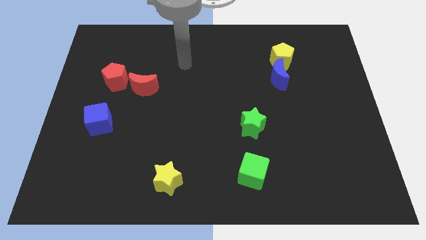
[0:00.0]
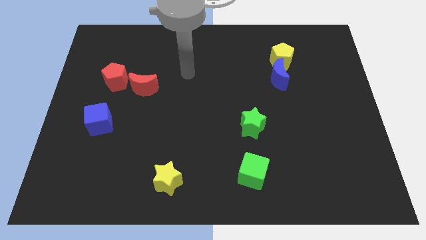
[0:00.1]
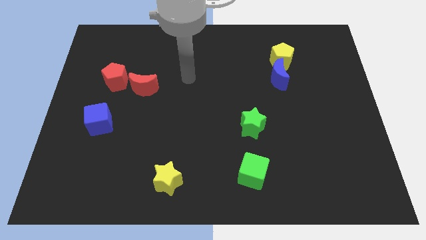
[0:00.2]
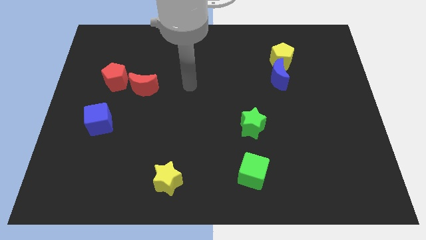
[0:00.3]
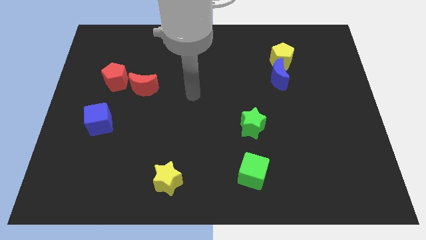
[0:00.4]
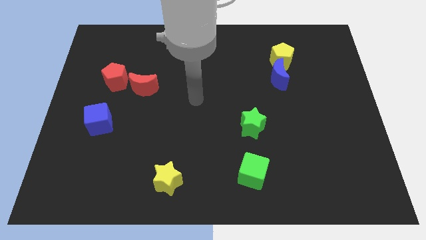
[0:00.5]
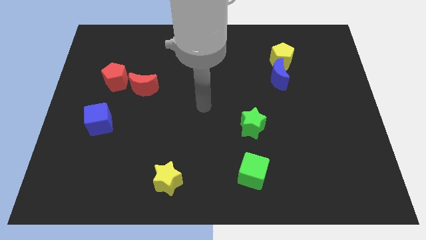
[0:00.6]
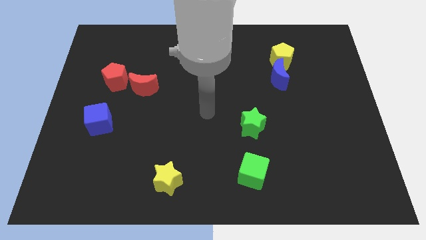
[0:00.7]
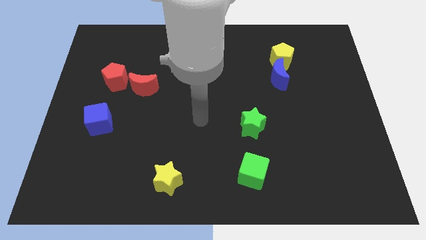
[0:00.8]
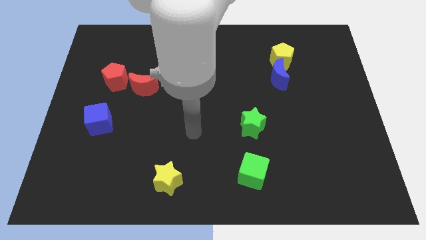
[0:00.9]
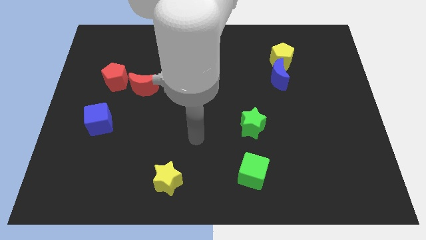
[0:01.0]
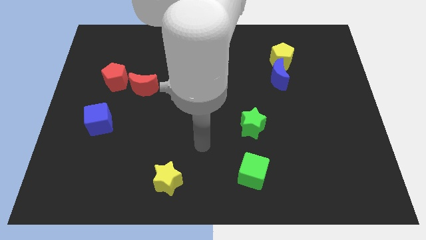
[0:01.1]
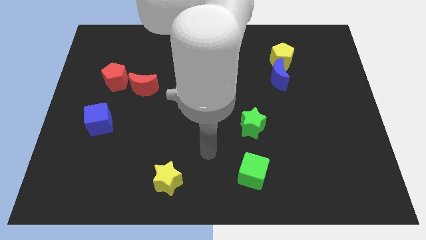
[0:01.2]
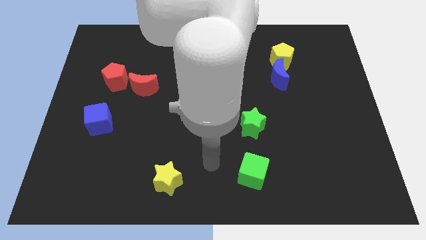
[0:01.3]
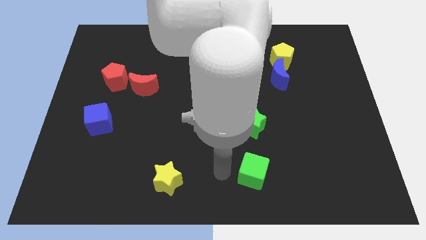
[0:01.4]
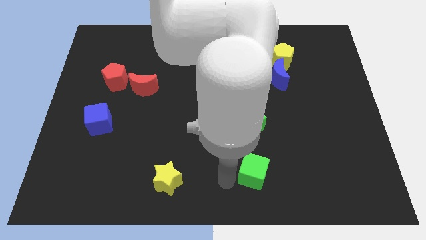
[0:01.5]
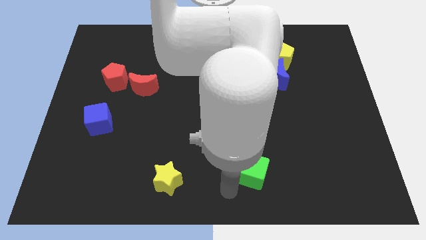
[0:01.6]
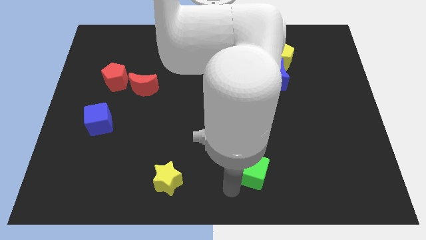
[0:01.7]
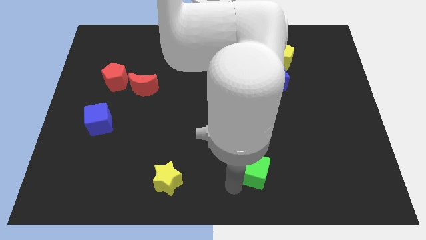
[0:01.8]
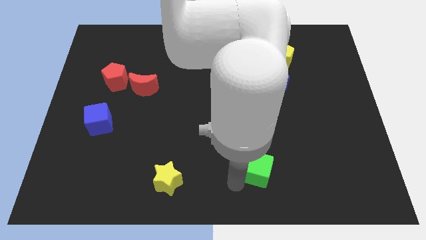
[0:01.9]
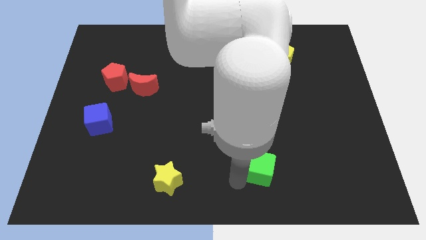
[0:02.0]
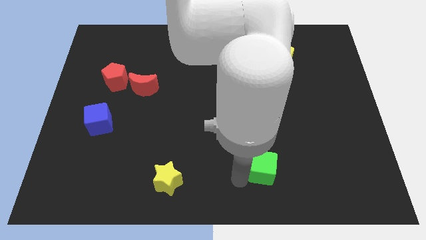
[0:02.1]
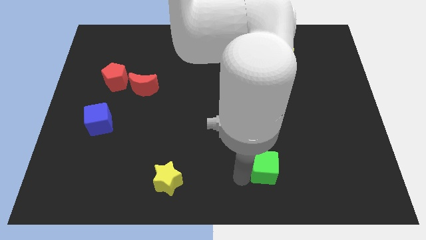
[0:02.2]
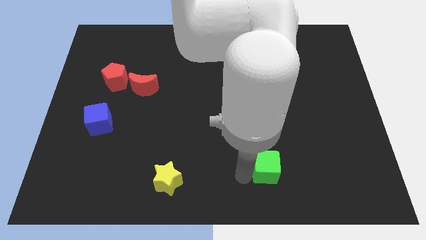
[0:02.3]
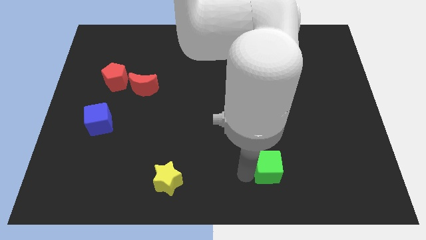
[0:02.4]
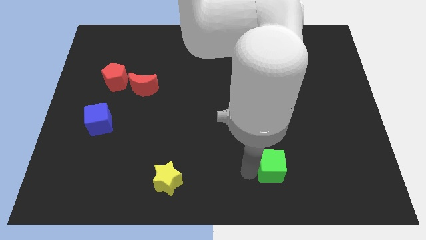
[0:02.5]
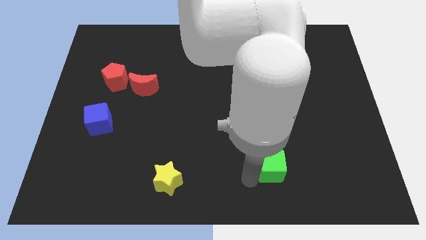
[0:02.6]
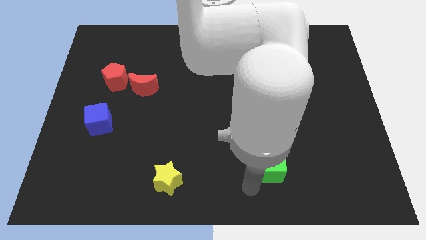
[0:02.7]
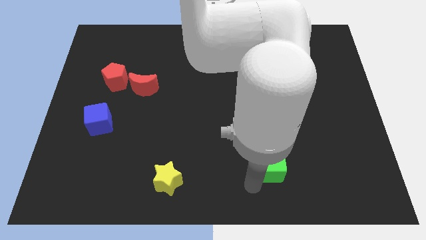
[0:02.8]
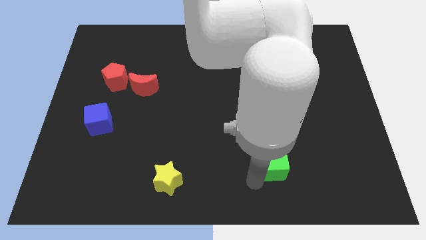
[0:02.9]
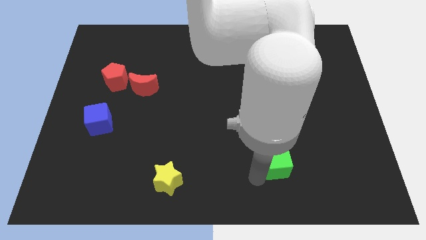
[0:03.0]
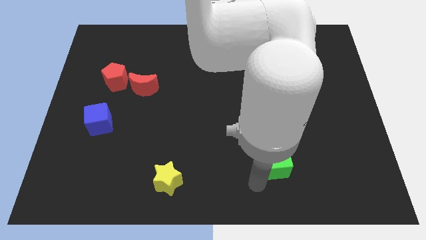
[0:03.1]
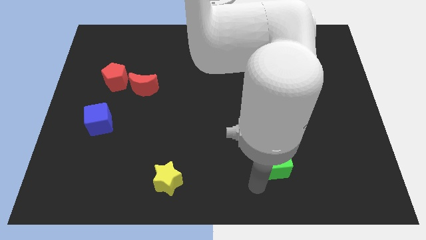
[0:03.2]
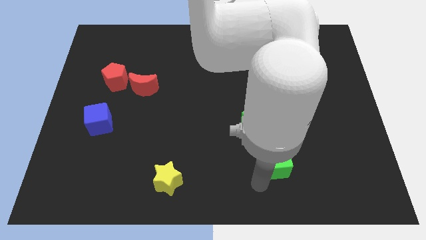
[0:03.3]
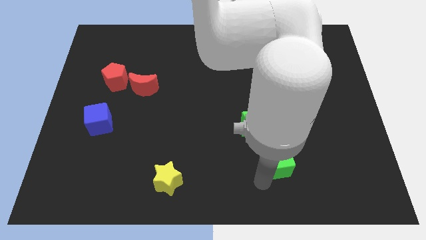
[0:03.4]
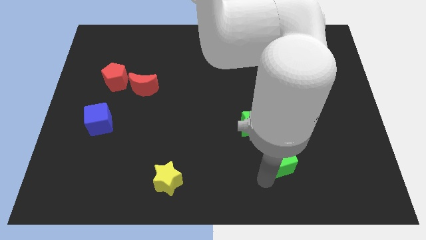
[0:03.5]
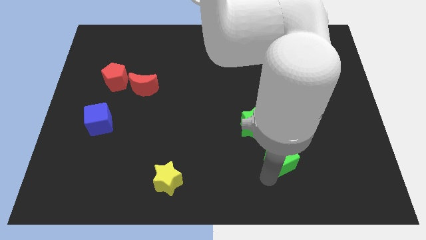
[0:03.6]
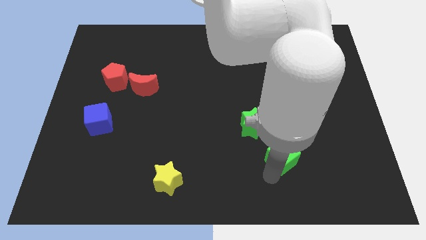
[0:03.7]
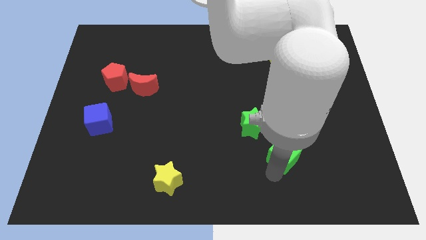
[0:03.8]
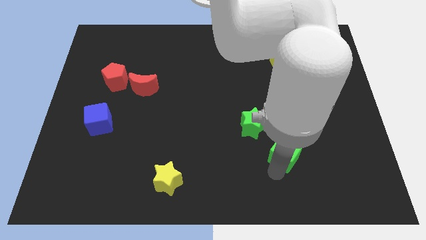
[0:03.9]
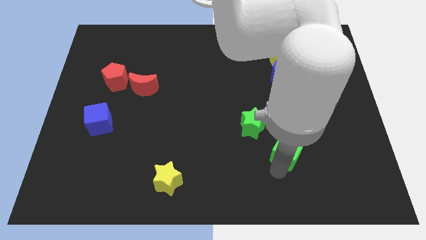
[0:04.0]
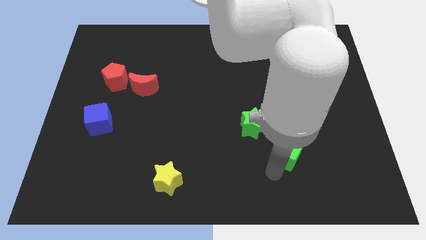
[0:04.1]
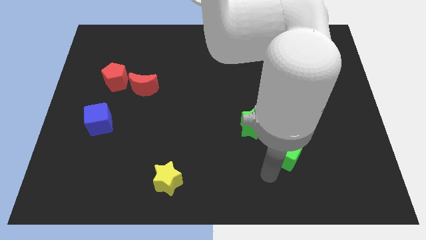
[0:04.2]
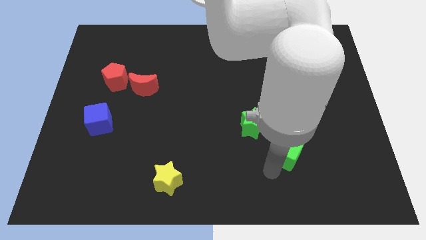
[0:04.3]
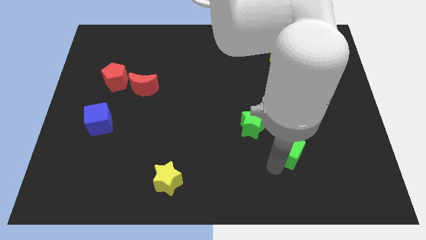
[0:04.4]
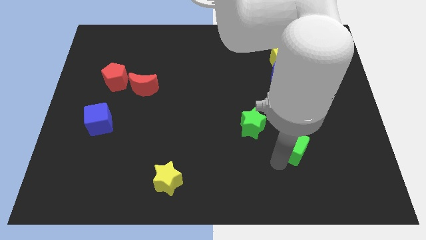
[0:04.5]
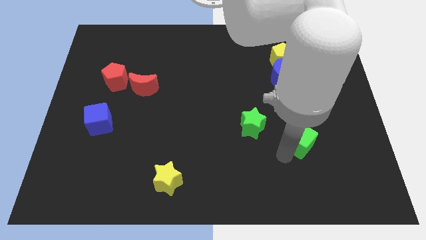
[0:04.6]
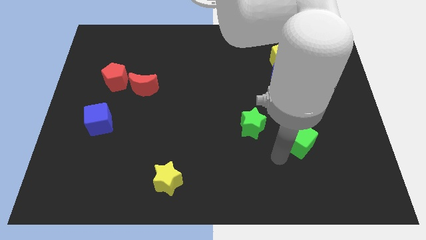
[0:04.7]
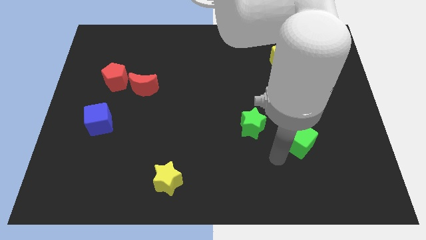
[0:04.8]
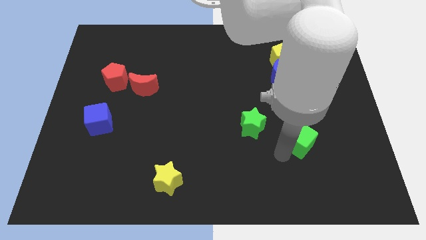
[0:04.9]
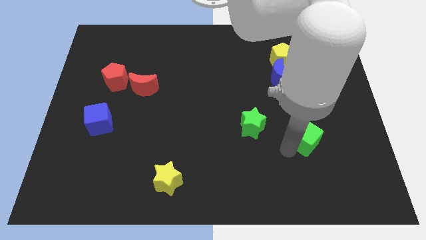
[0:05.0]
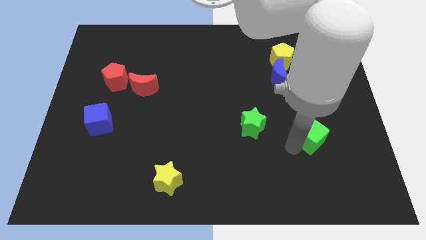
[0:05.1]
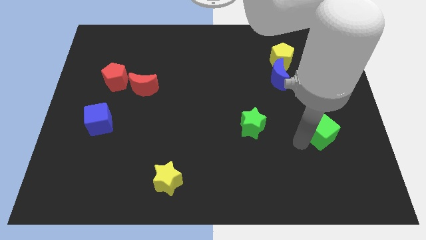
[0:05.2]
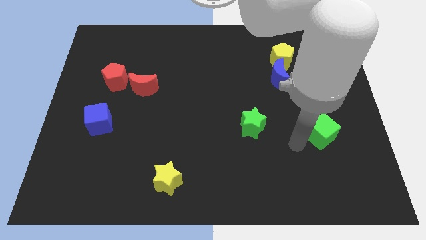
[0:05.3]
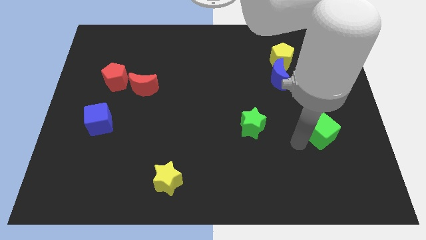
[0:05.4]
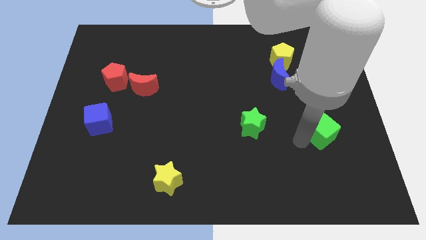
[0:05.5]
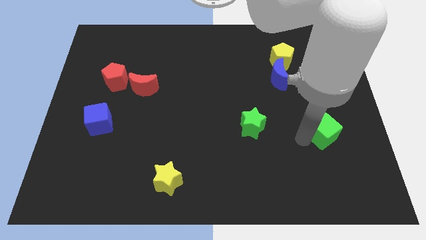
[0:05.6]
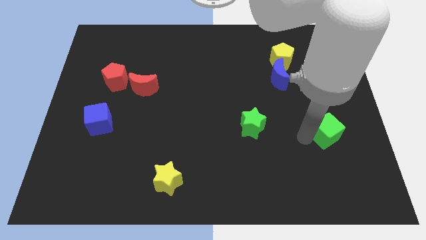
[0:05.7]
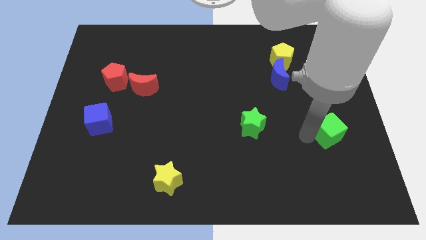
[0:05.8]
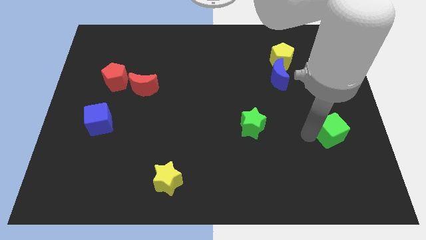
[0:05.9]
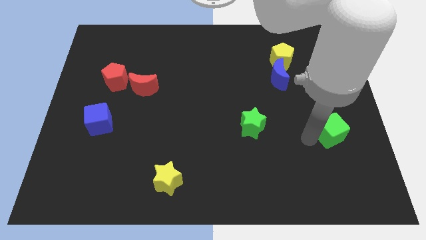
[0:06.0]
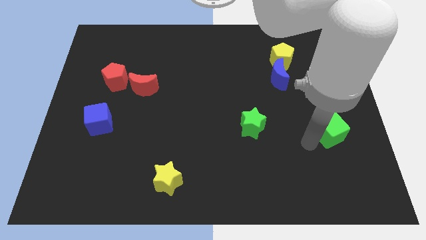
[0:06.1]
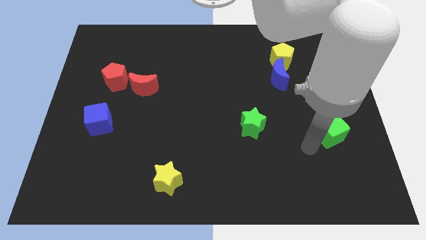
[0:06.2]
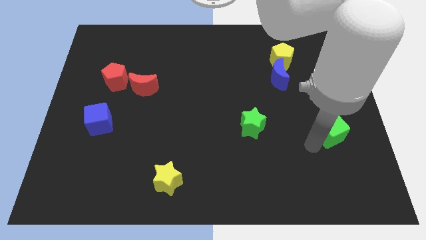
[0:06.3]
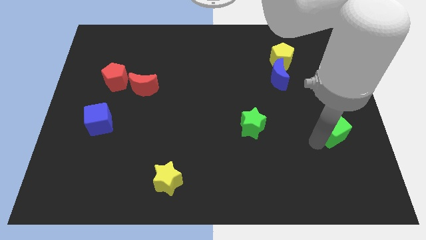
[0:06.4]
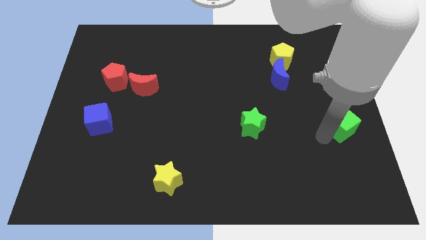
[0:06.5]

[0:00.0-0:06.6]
slide the green cube to the center right

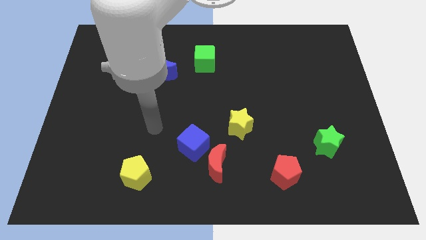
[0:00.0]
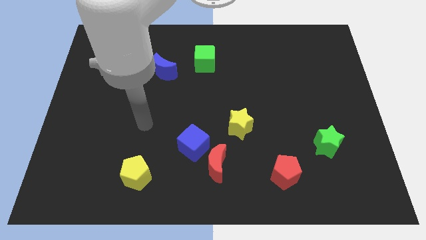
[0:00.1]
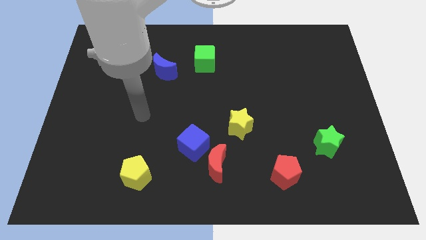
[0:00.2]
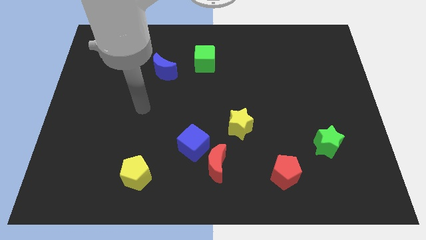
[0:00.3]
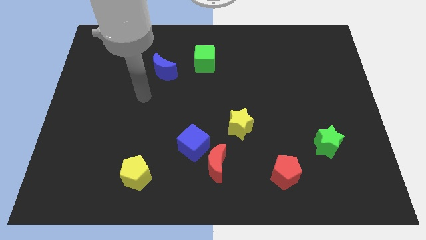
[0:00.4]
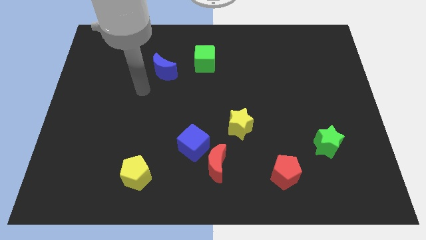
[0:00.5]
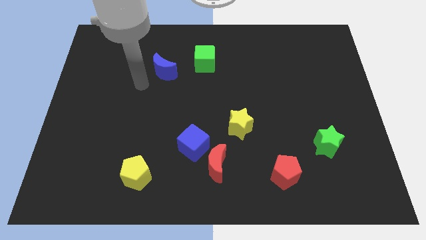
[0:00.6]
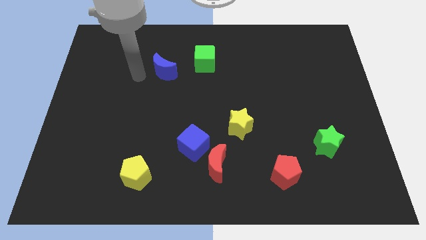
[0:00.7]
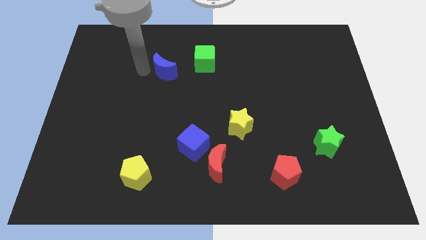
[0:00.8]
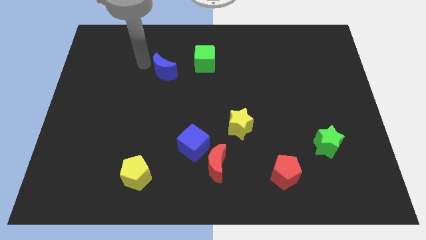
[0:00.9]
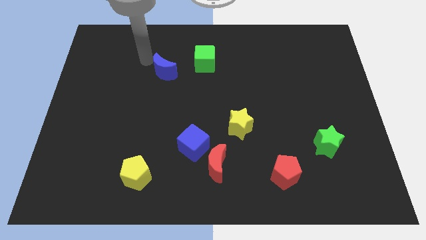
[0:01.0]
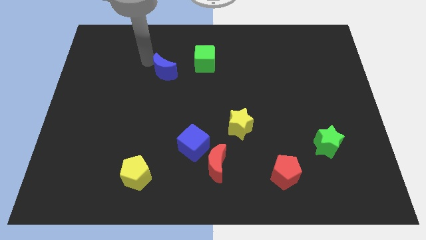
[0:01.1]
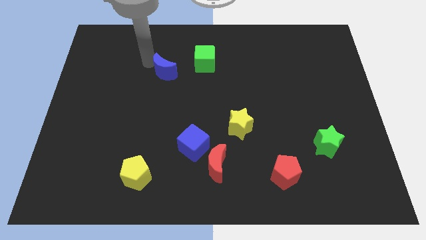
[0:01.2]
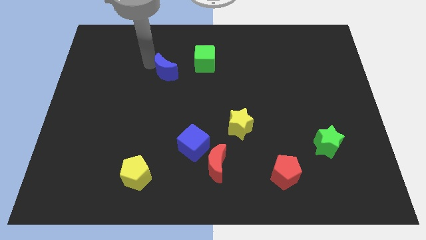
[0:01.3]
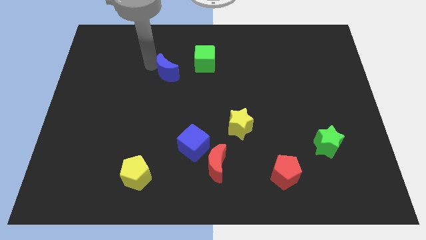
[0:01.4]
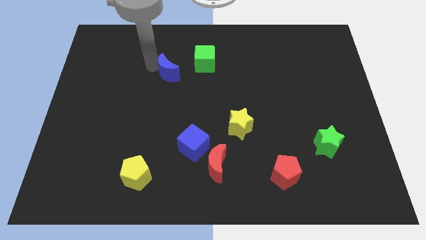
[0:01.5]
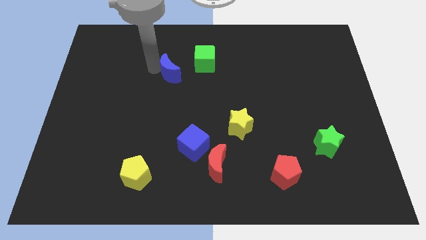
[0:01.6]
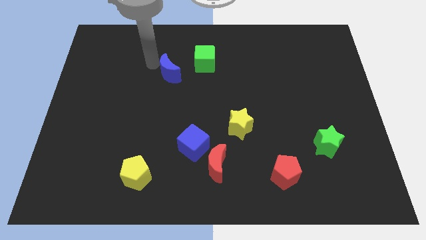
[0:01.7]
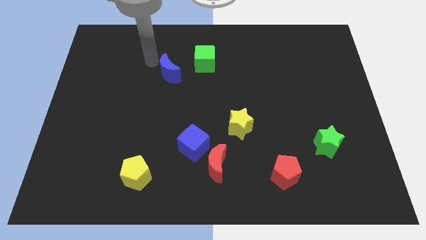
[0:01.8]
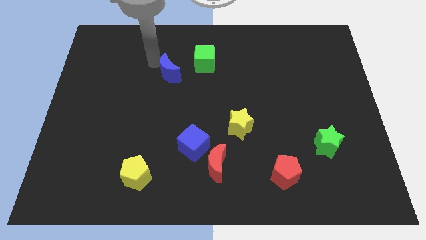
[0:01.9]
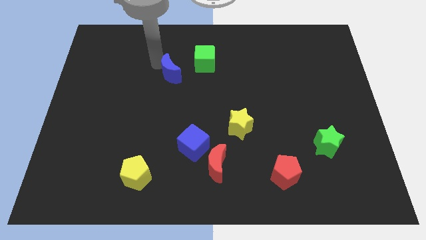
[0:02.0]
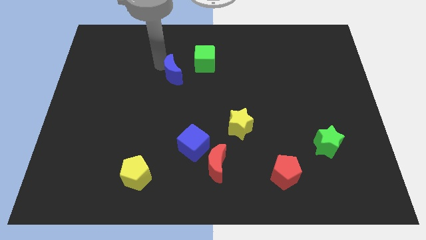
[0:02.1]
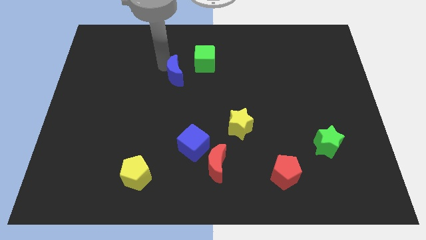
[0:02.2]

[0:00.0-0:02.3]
put the blue moon to the center of the board
